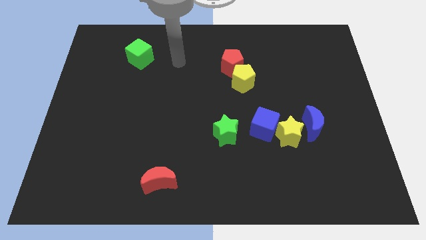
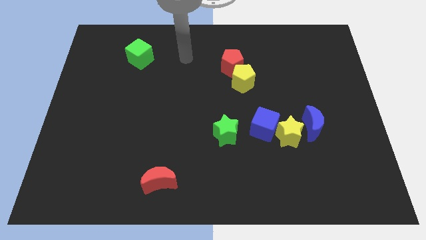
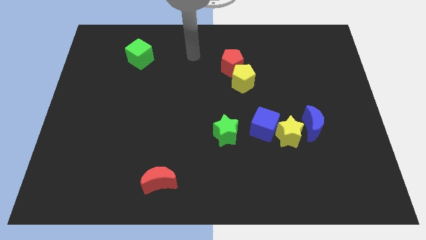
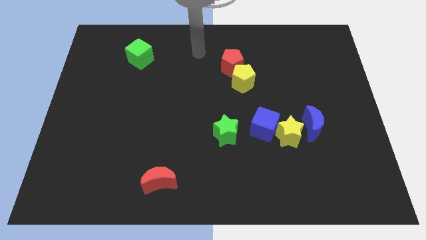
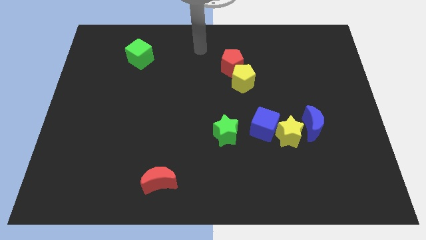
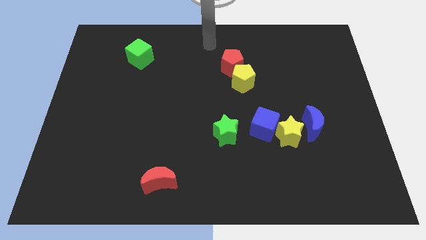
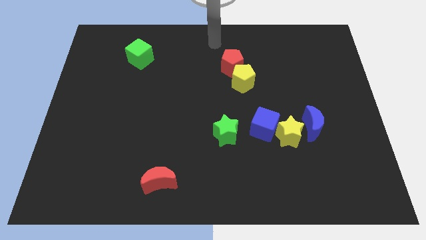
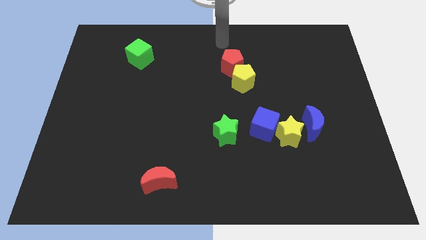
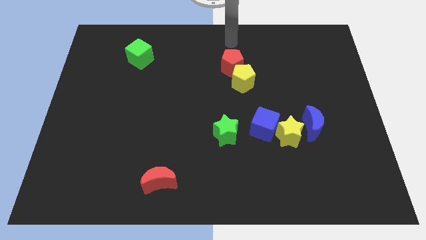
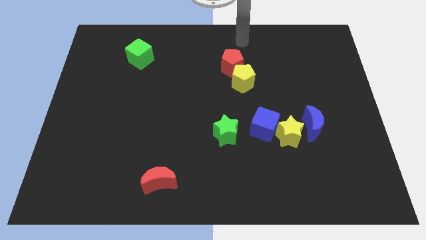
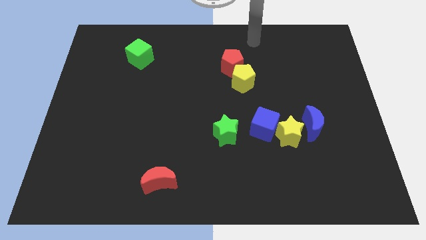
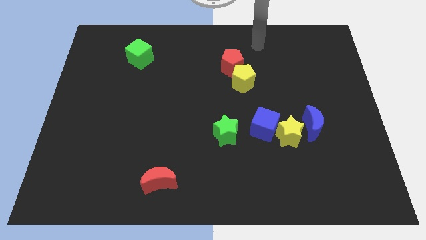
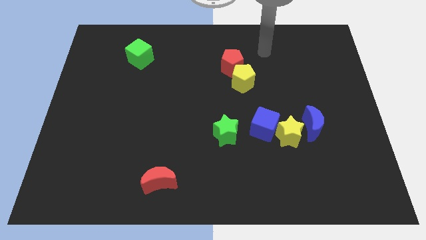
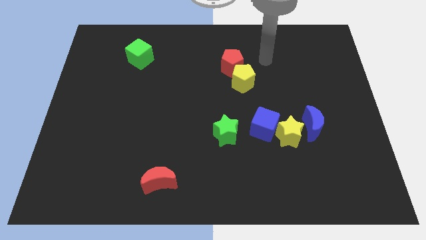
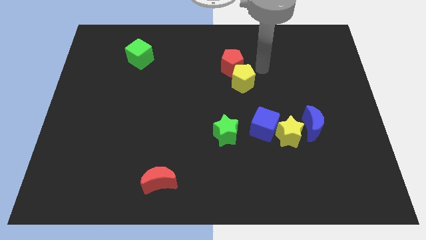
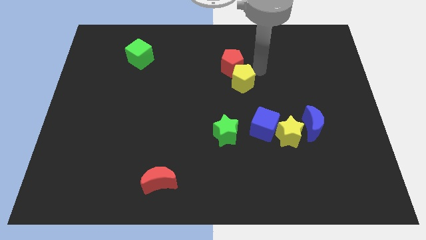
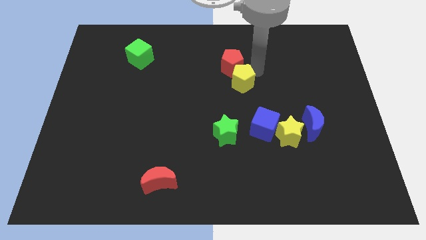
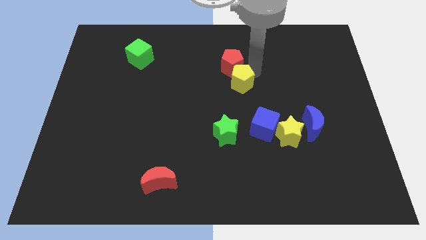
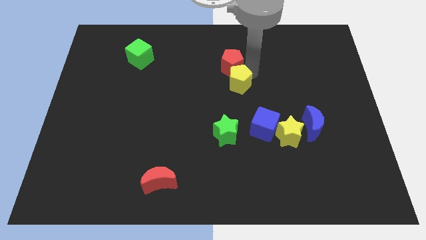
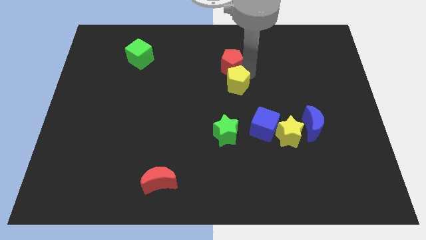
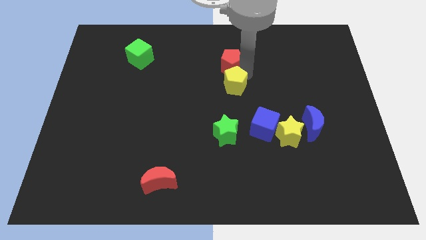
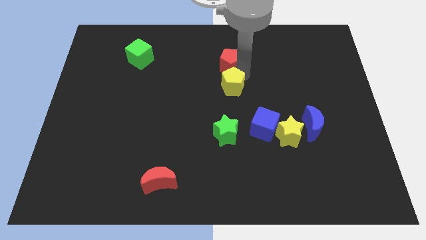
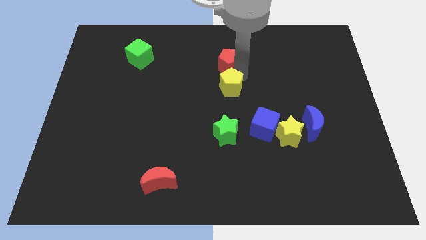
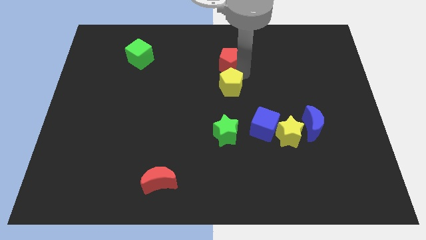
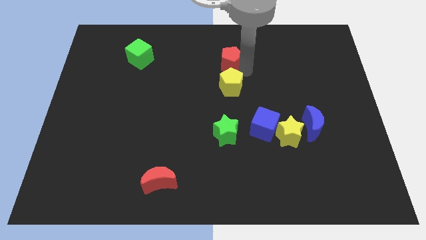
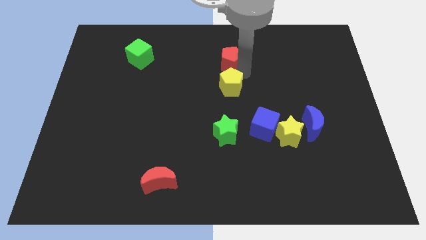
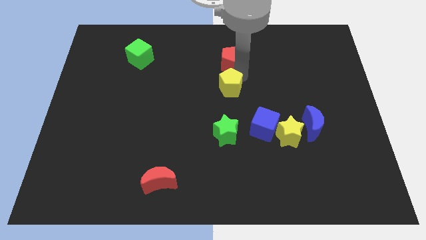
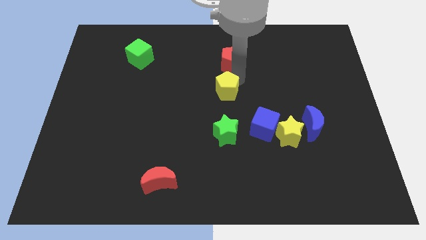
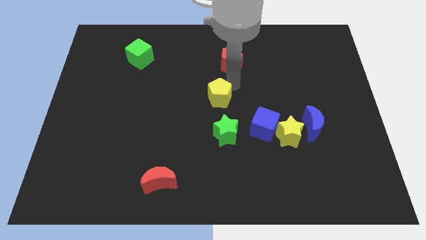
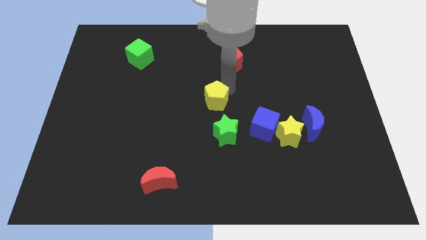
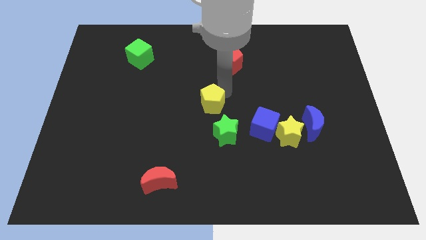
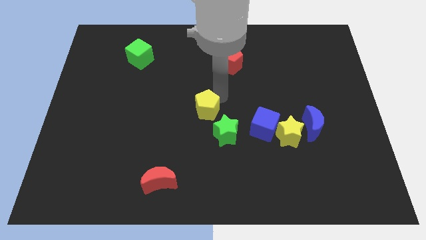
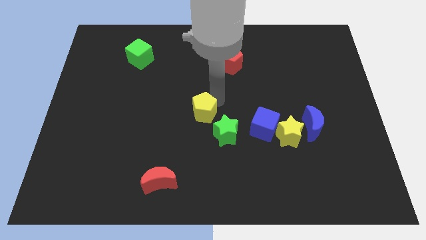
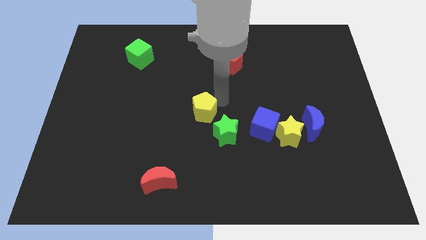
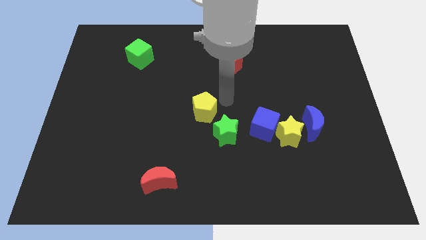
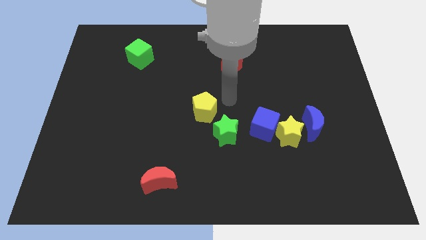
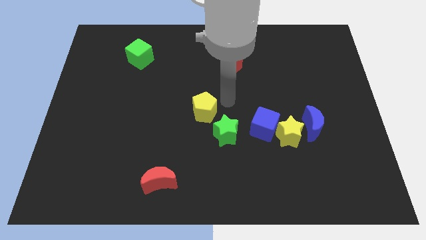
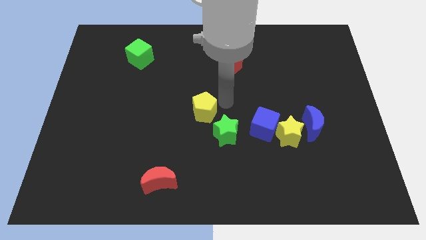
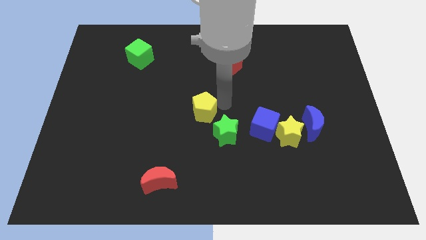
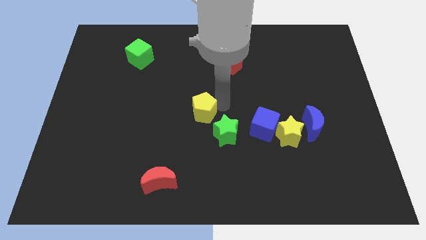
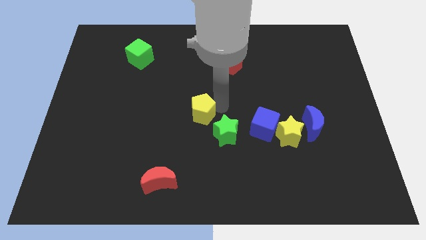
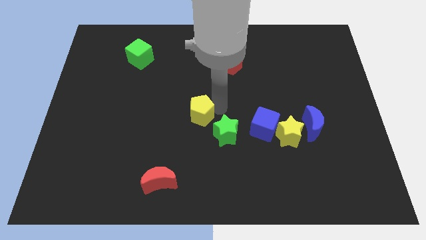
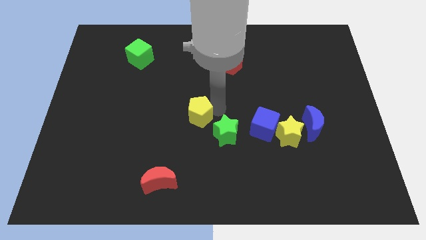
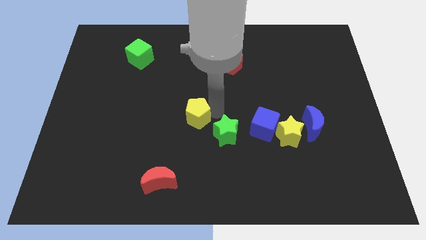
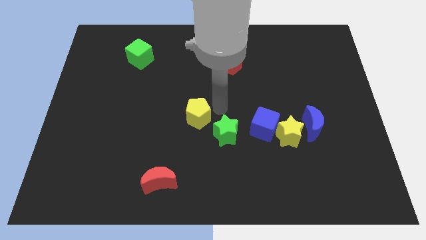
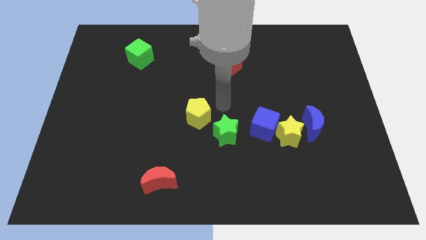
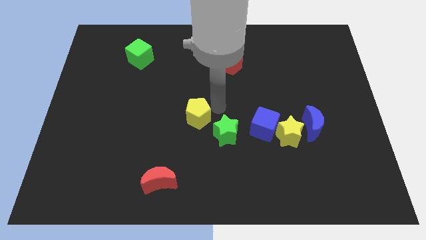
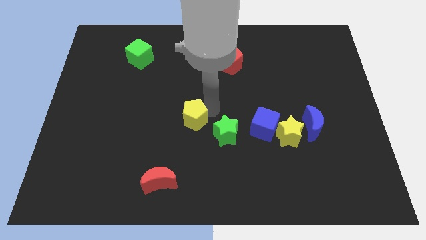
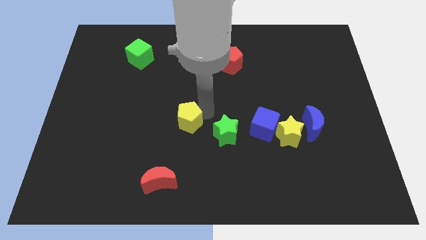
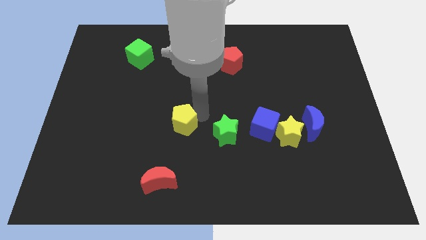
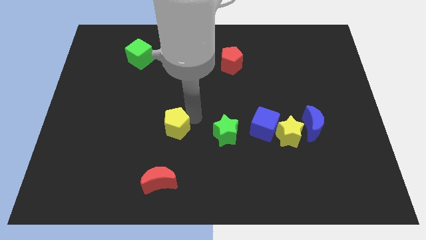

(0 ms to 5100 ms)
push the yellow pentagon downwards and then left

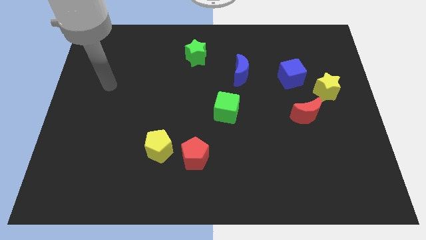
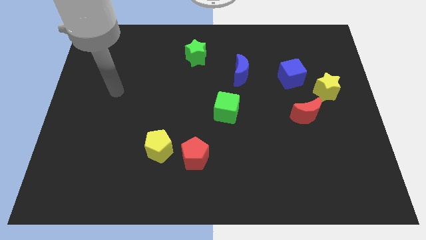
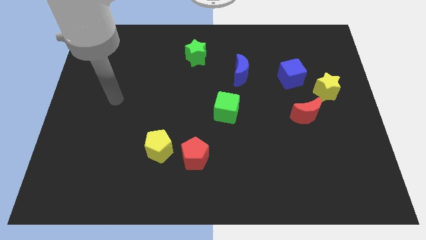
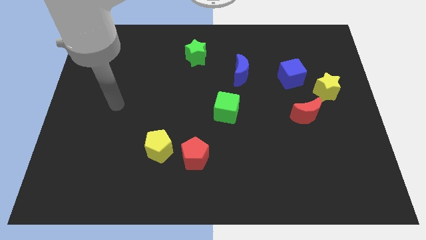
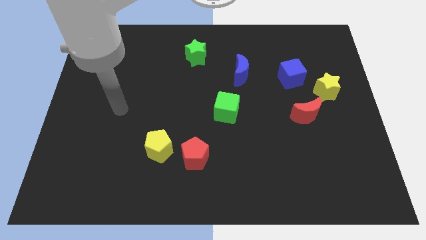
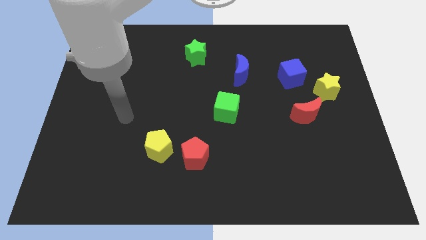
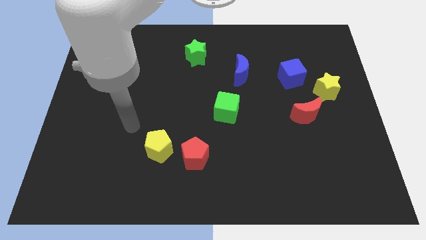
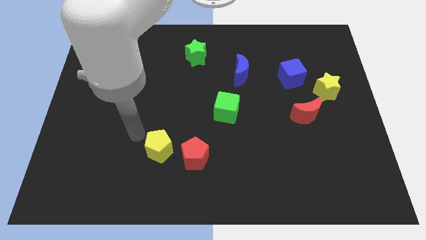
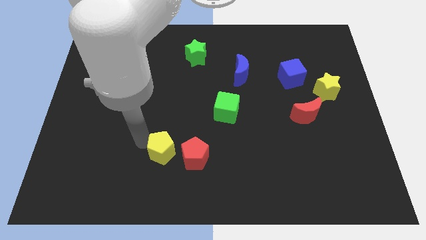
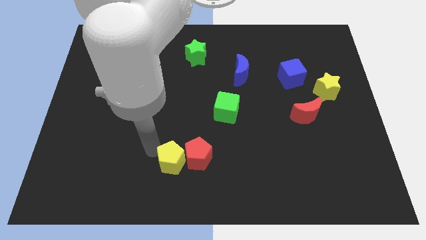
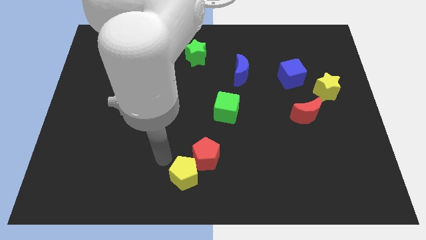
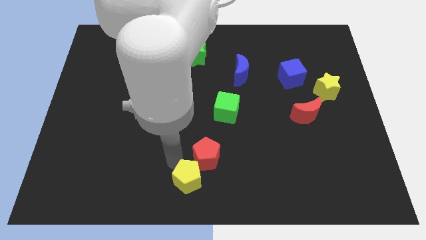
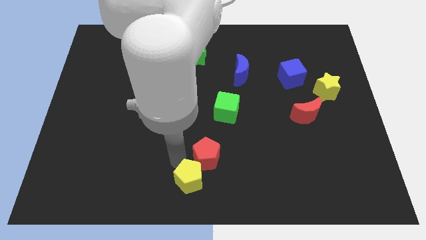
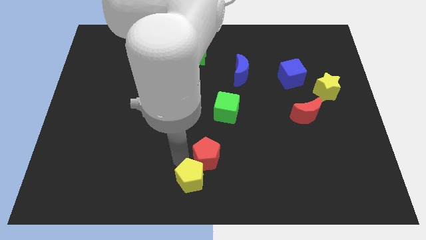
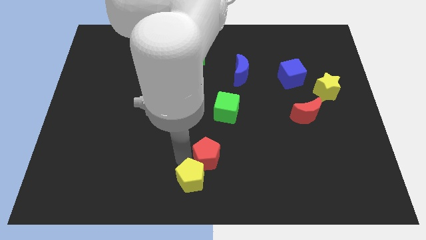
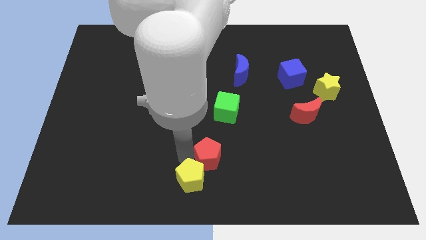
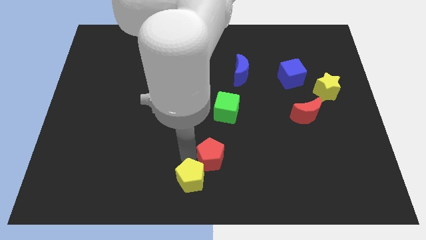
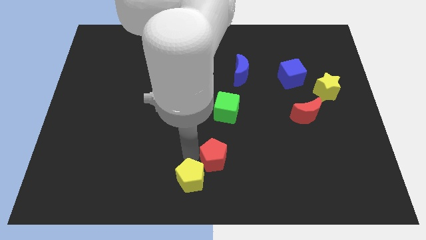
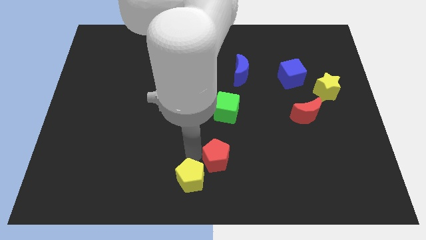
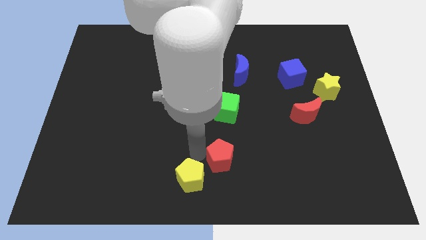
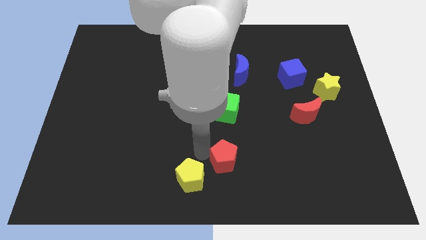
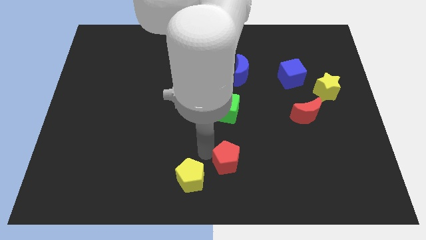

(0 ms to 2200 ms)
push the red pentagon to the right a bit

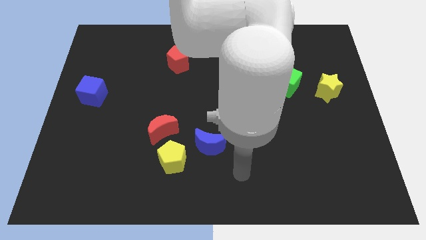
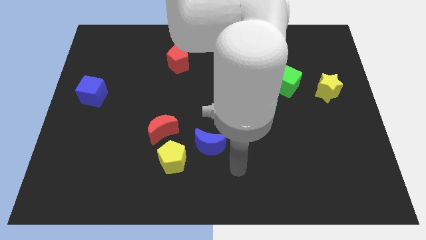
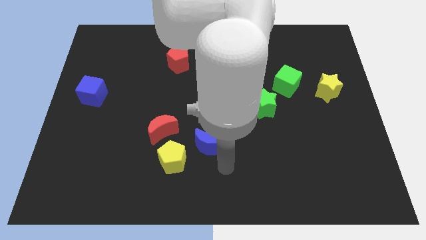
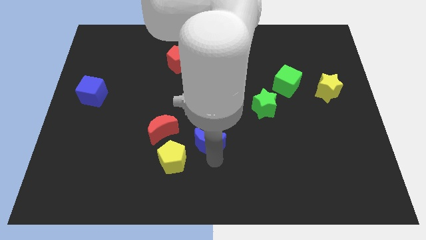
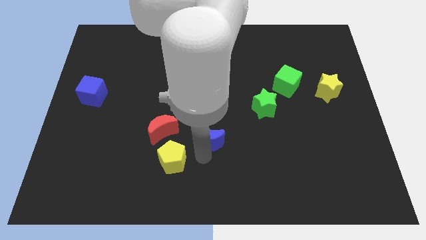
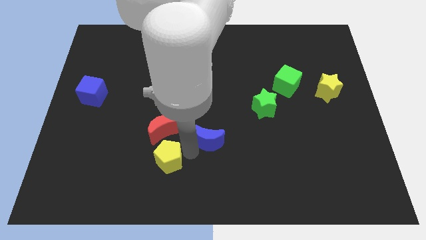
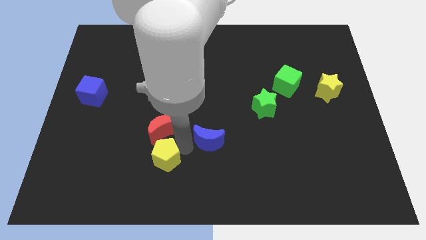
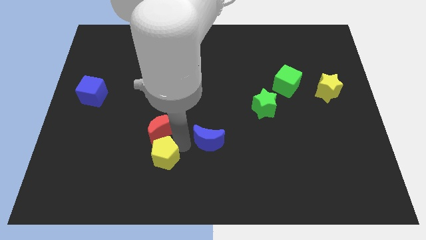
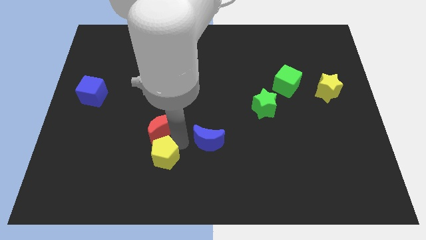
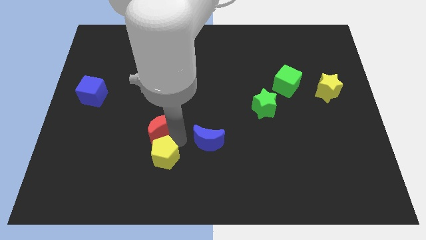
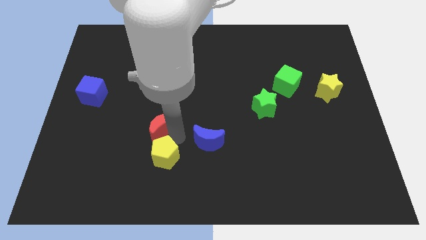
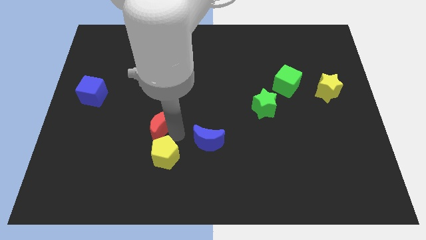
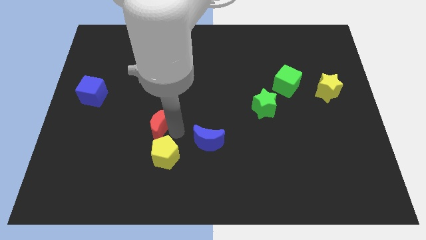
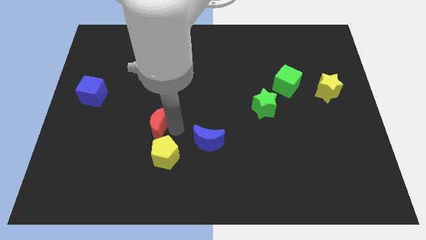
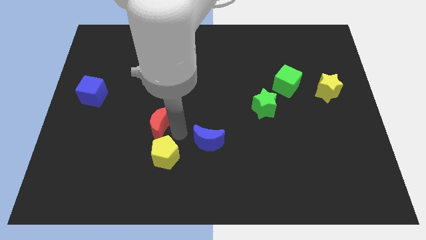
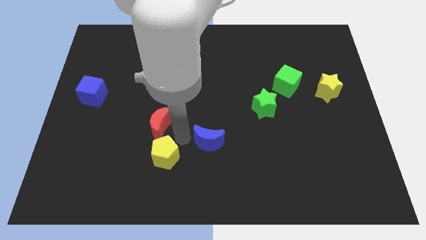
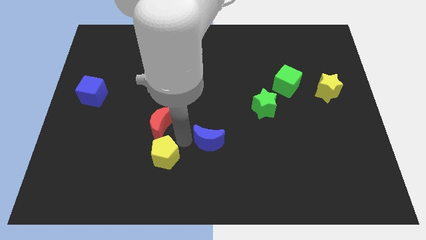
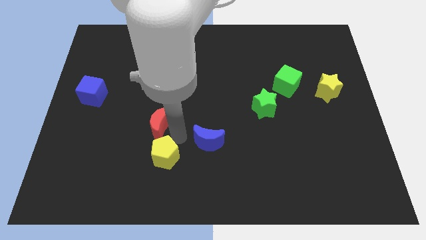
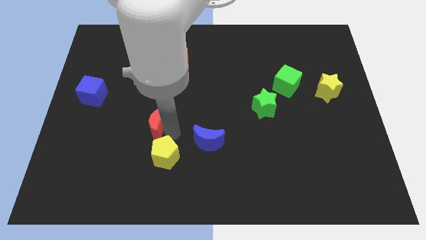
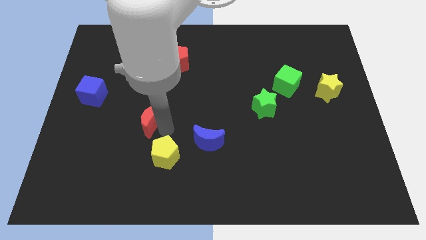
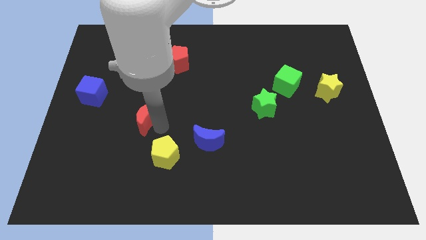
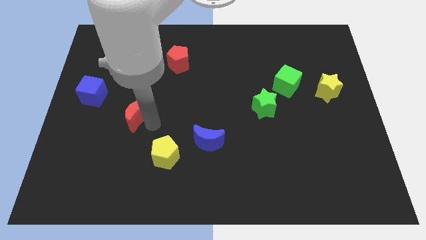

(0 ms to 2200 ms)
slightly move the red moon upwards and to the left
